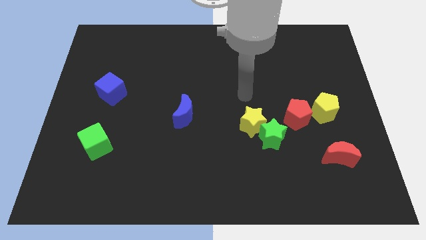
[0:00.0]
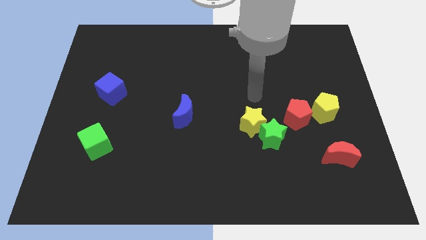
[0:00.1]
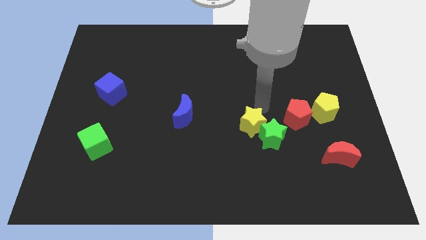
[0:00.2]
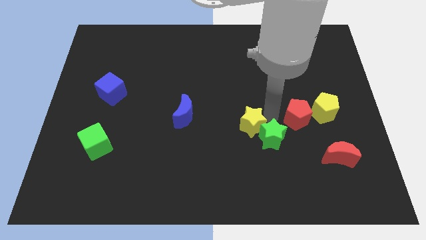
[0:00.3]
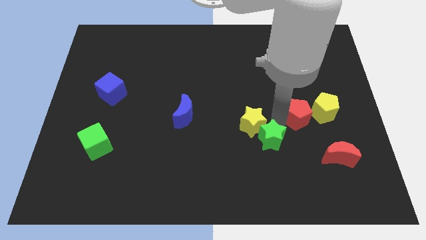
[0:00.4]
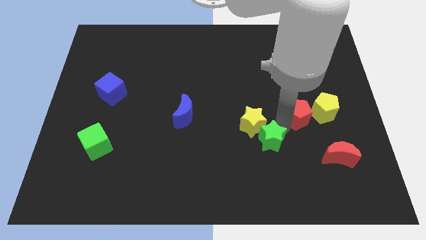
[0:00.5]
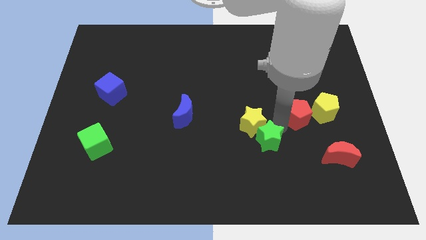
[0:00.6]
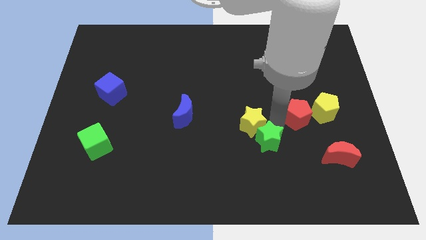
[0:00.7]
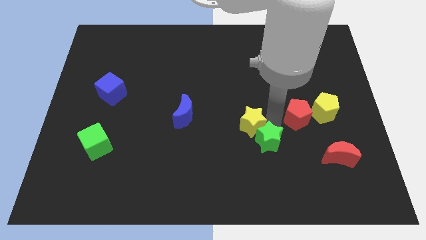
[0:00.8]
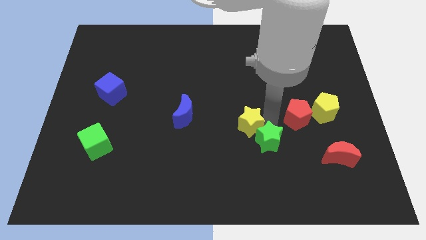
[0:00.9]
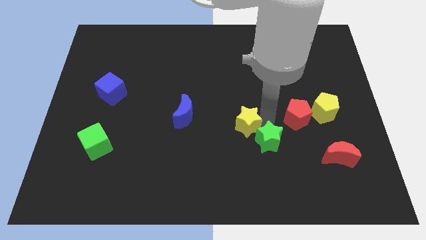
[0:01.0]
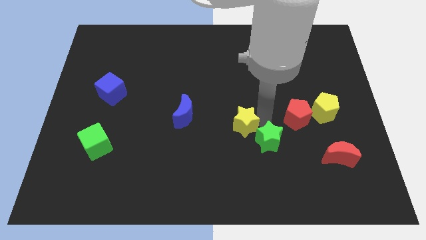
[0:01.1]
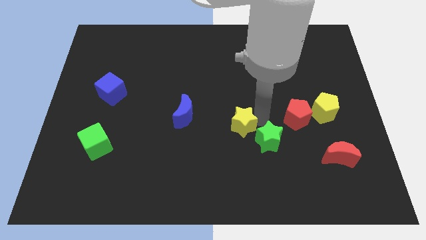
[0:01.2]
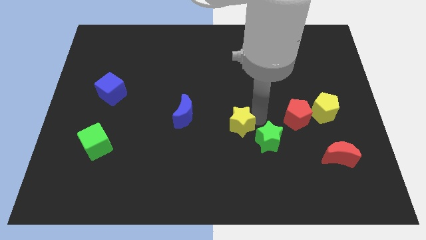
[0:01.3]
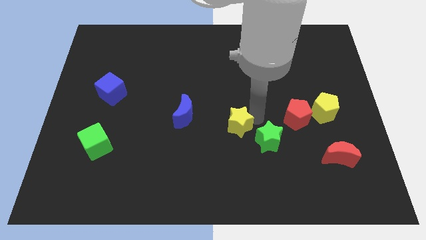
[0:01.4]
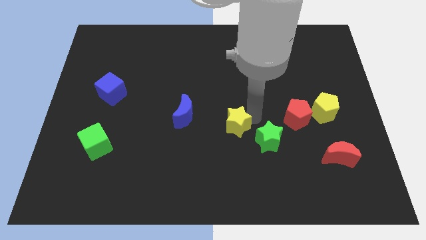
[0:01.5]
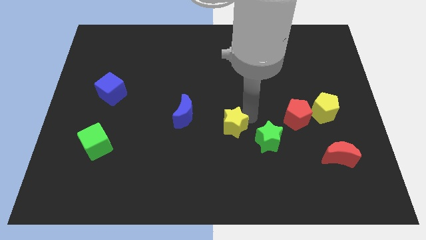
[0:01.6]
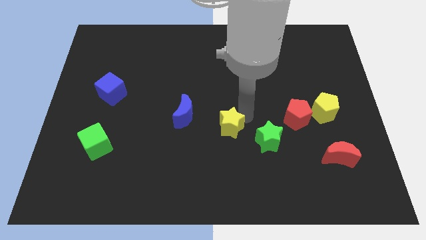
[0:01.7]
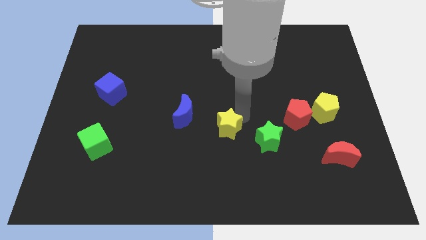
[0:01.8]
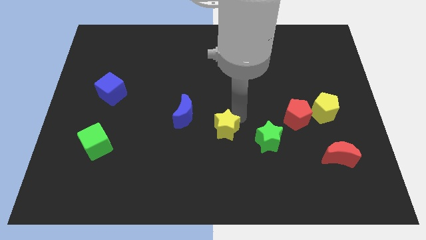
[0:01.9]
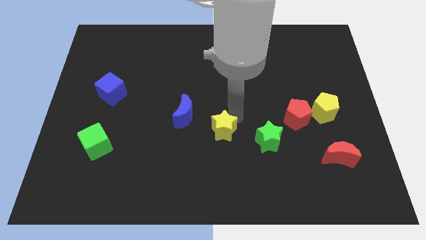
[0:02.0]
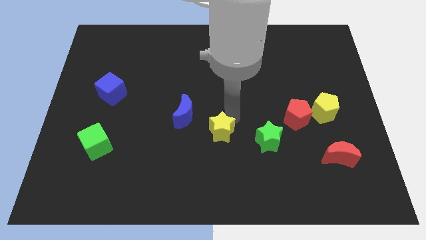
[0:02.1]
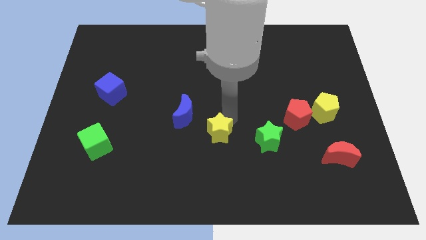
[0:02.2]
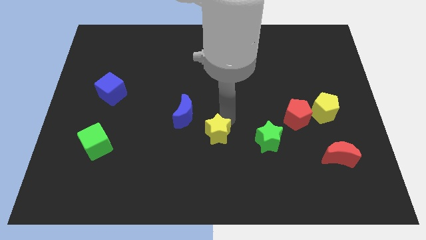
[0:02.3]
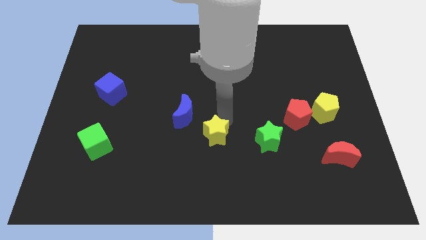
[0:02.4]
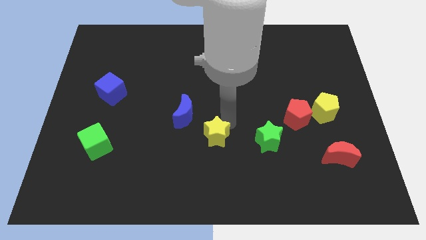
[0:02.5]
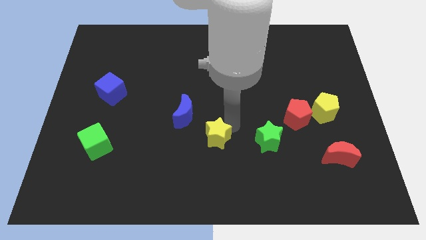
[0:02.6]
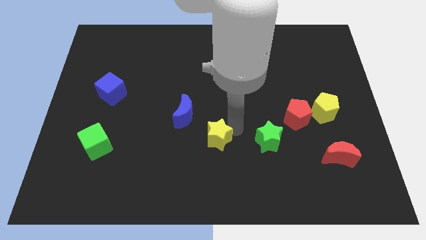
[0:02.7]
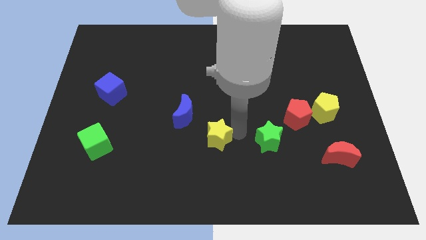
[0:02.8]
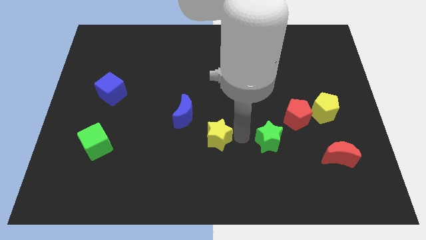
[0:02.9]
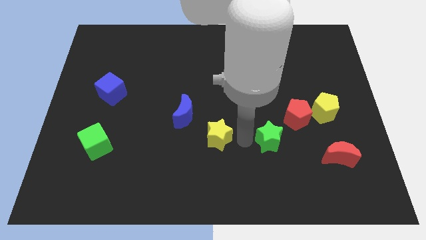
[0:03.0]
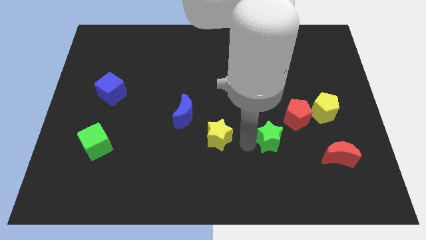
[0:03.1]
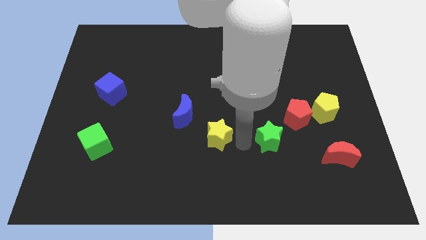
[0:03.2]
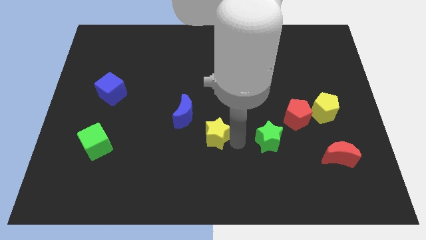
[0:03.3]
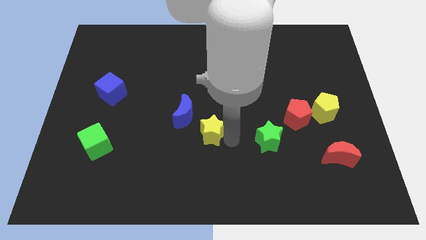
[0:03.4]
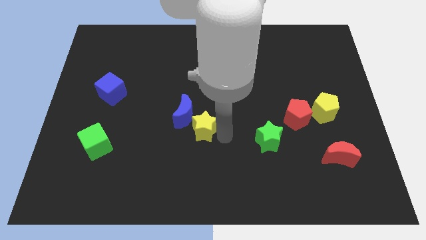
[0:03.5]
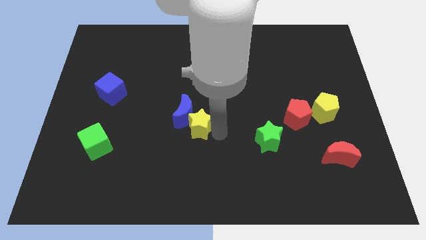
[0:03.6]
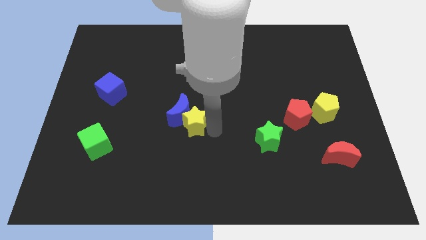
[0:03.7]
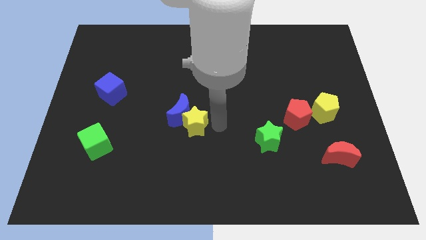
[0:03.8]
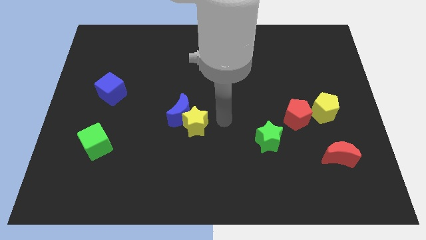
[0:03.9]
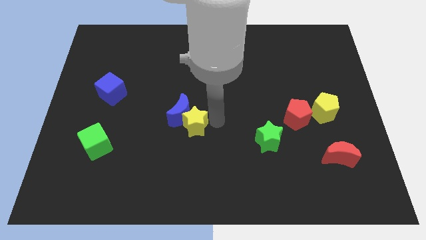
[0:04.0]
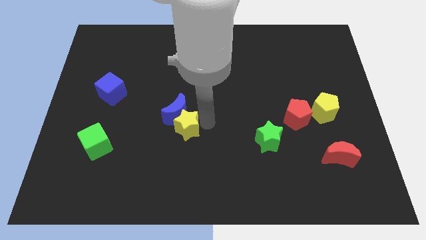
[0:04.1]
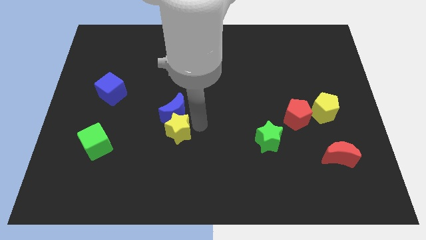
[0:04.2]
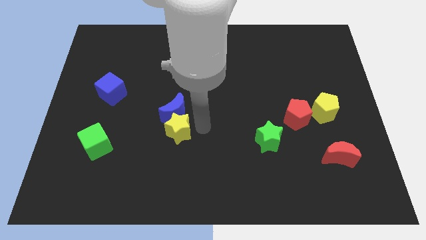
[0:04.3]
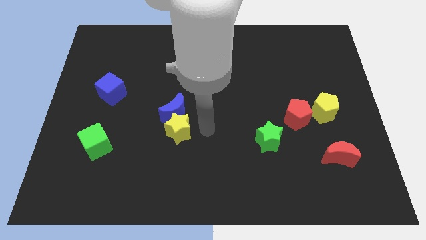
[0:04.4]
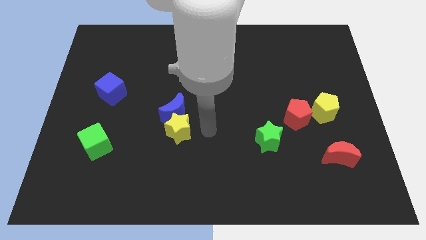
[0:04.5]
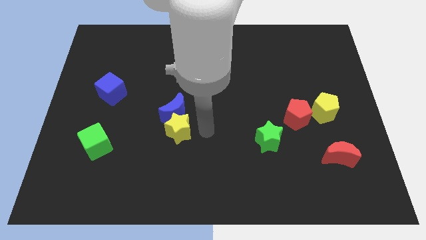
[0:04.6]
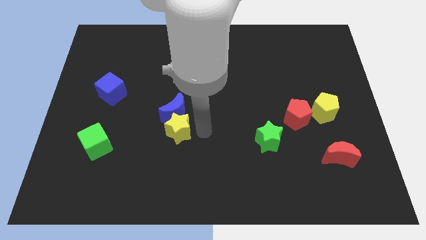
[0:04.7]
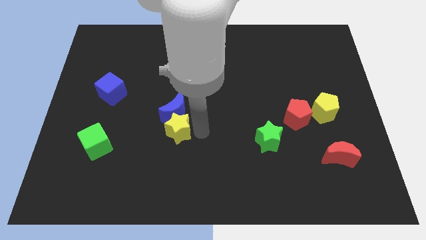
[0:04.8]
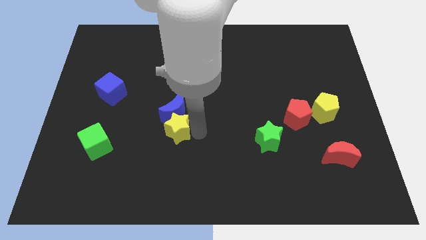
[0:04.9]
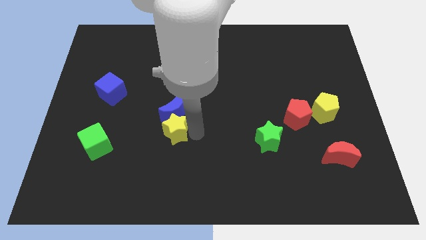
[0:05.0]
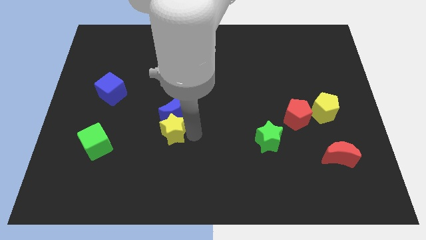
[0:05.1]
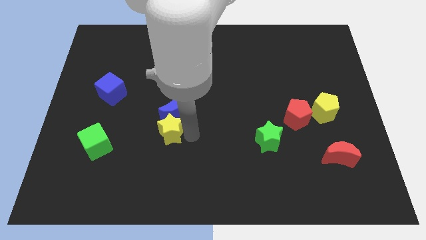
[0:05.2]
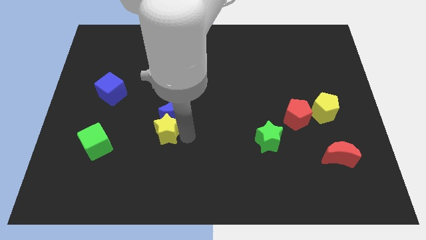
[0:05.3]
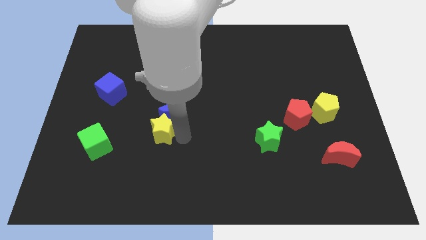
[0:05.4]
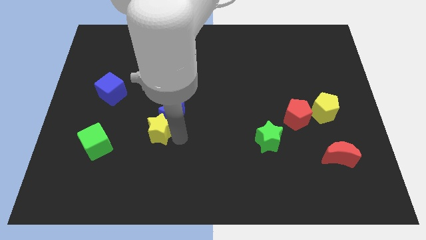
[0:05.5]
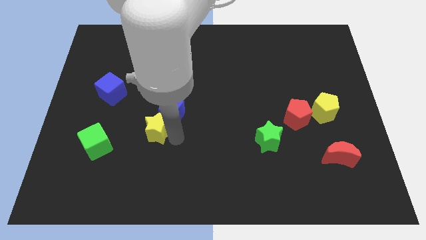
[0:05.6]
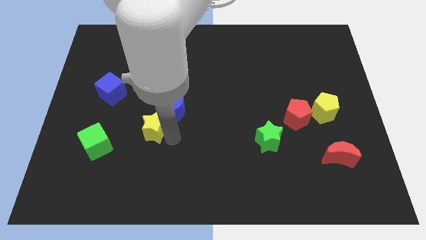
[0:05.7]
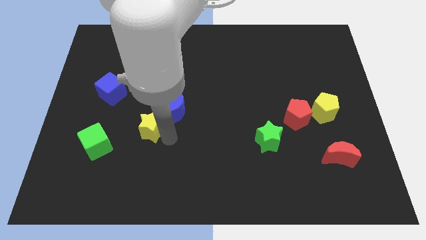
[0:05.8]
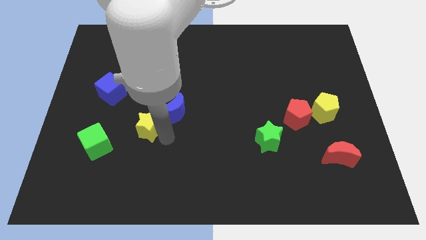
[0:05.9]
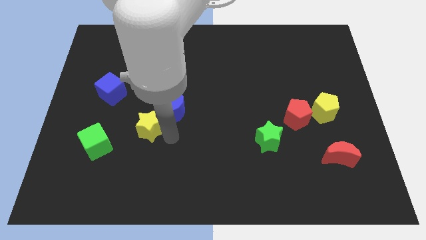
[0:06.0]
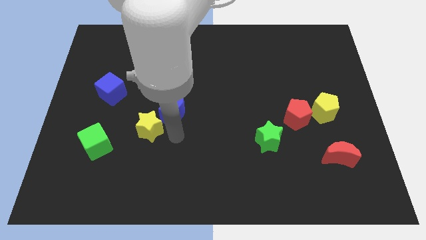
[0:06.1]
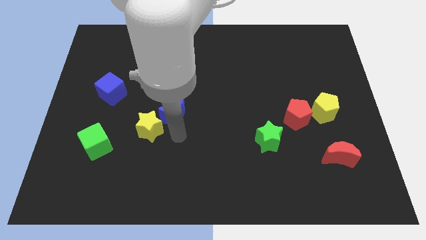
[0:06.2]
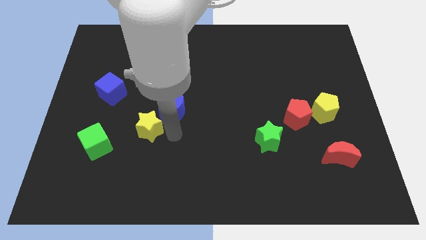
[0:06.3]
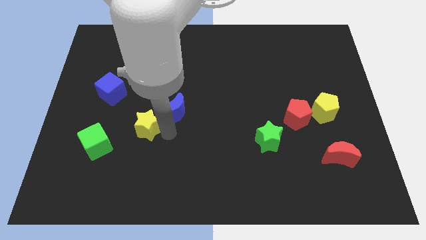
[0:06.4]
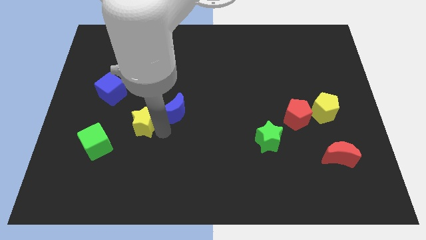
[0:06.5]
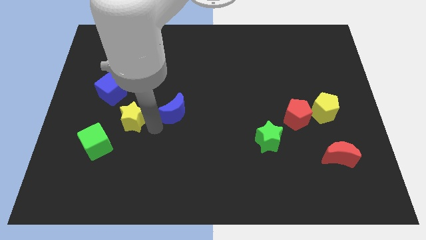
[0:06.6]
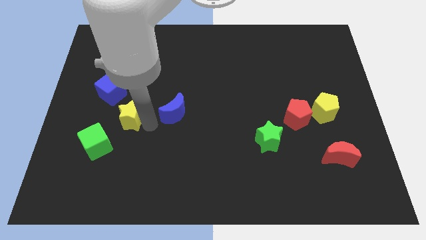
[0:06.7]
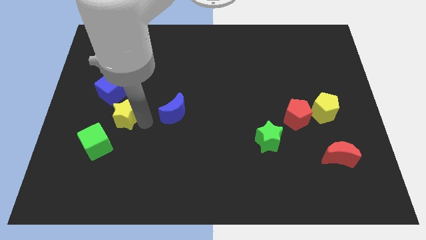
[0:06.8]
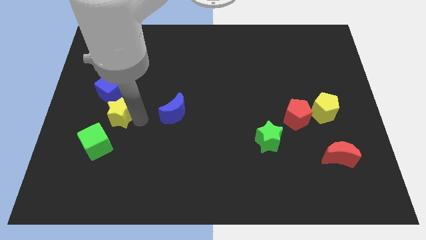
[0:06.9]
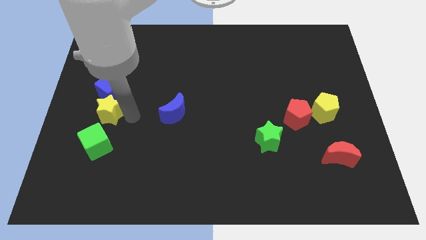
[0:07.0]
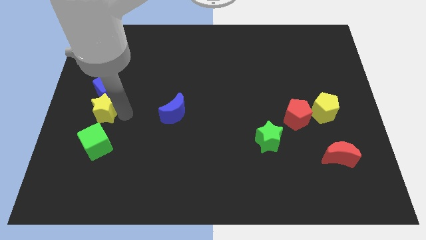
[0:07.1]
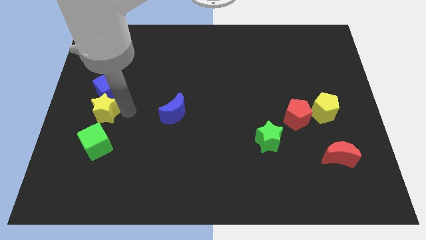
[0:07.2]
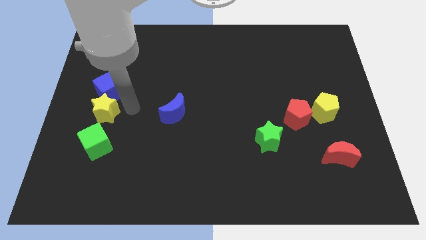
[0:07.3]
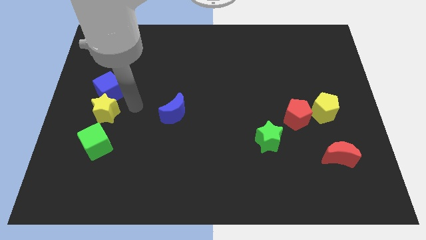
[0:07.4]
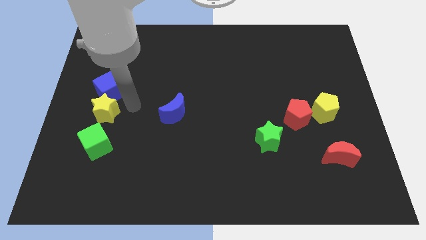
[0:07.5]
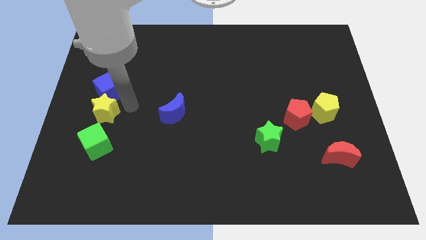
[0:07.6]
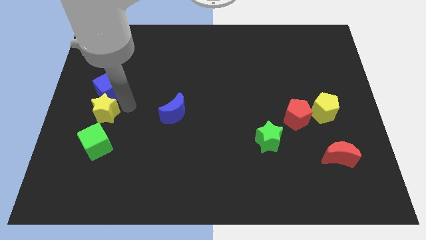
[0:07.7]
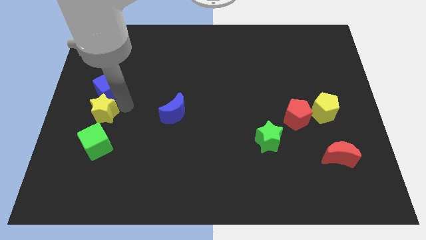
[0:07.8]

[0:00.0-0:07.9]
push the yellow star to the center left
